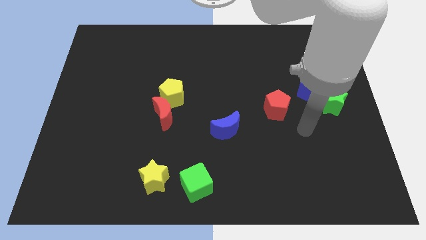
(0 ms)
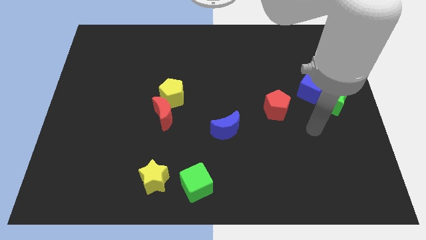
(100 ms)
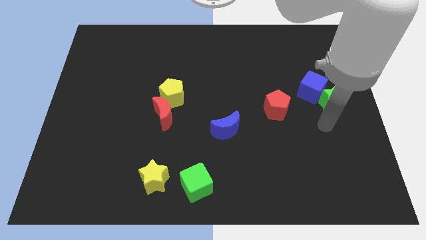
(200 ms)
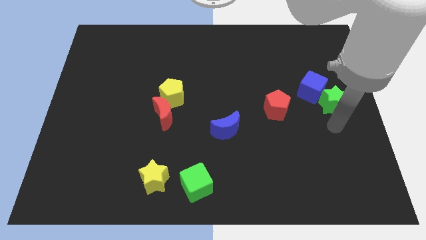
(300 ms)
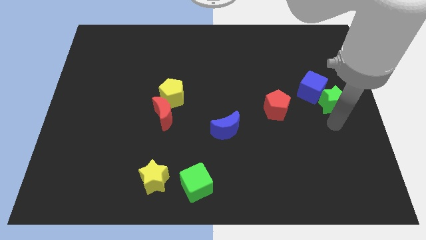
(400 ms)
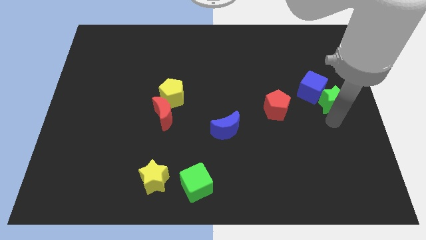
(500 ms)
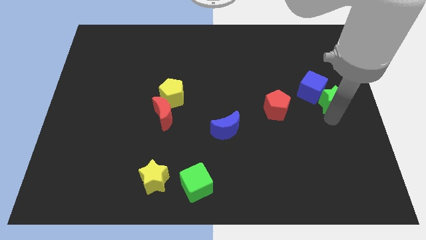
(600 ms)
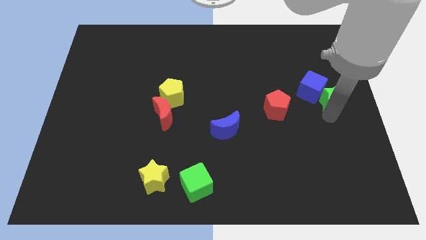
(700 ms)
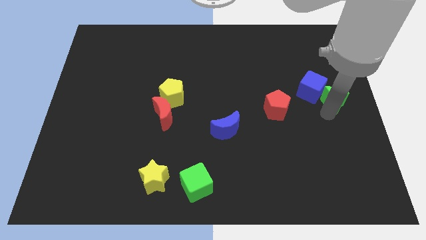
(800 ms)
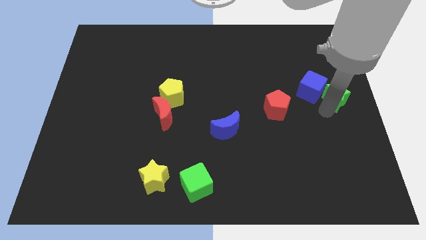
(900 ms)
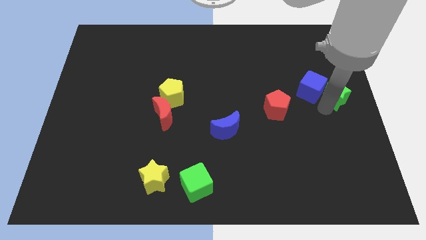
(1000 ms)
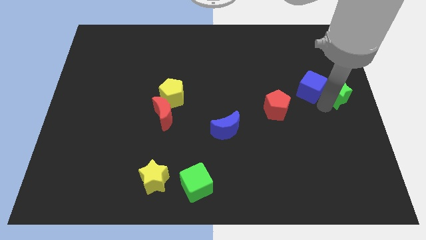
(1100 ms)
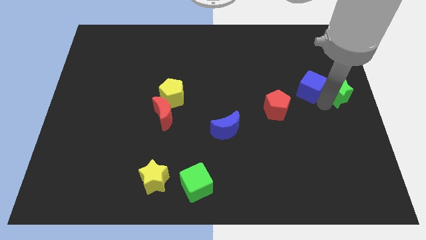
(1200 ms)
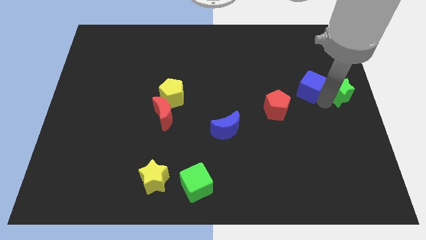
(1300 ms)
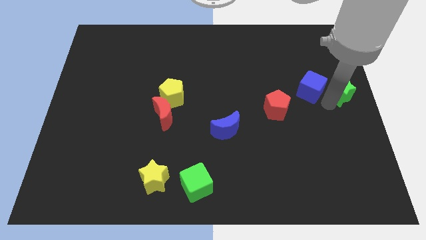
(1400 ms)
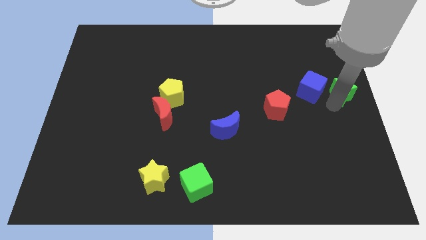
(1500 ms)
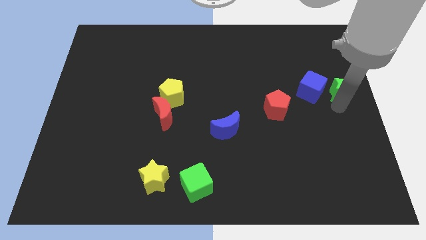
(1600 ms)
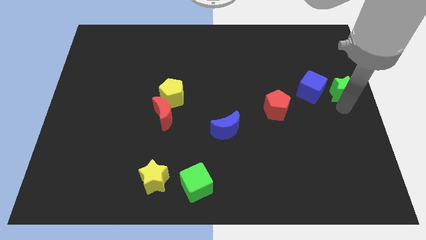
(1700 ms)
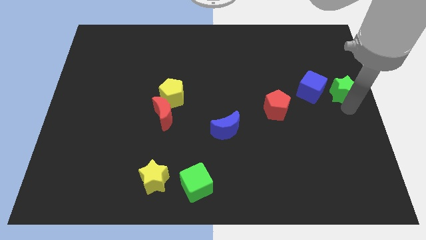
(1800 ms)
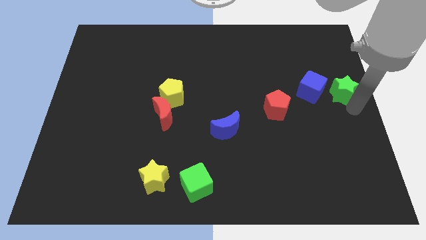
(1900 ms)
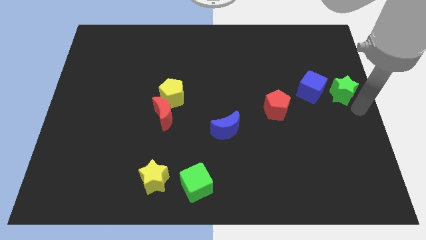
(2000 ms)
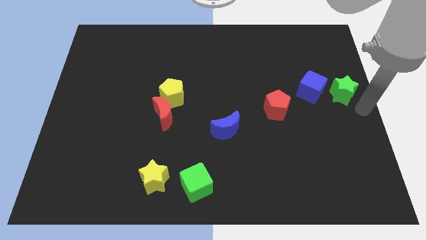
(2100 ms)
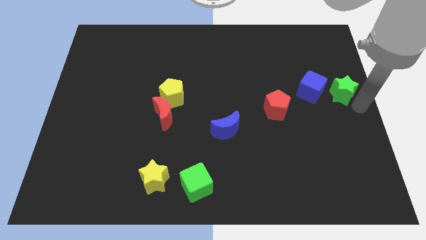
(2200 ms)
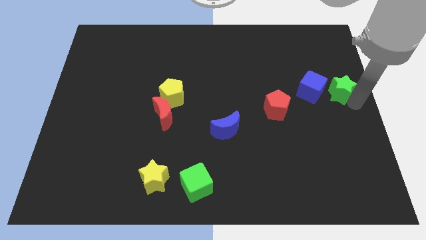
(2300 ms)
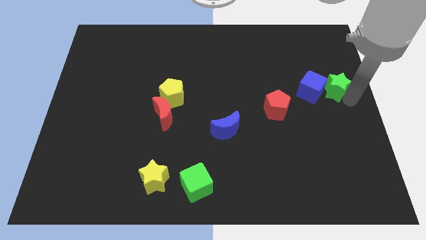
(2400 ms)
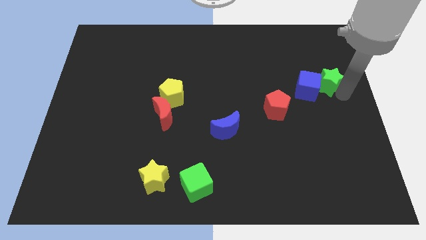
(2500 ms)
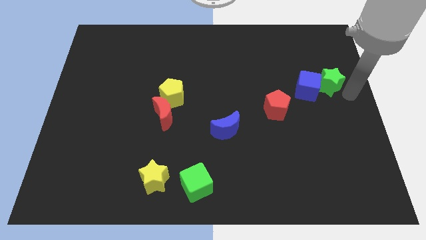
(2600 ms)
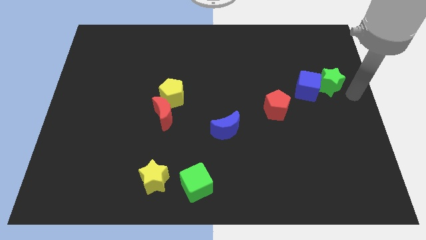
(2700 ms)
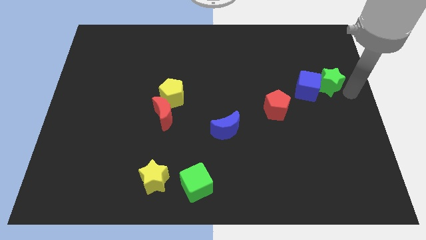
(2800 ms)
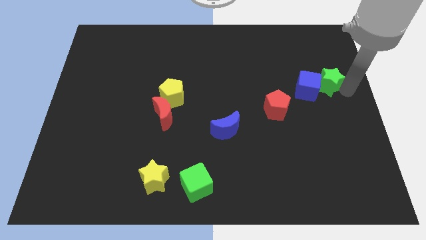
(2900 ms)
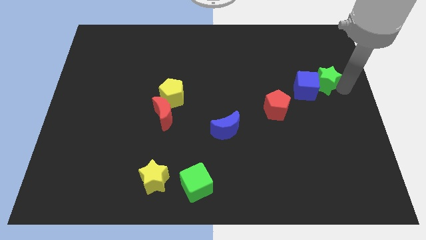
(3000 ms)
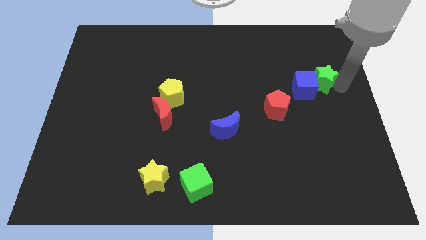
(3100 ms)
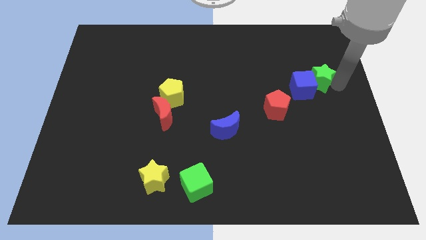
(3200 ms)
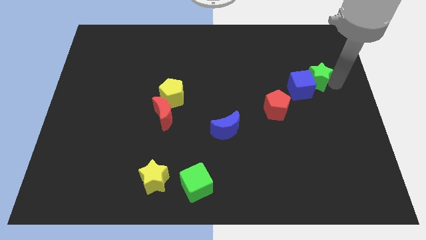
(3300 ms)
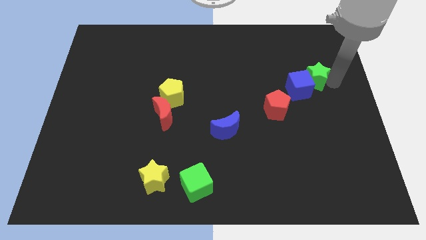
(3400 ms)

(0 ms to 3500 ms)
move the green star upwards and then to the left slightly

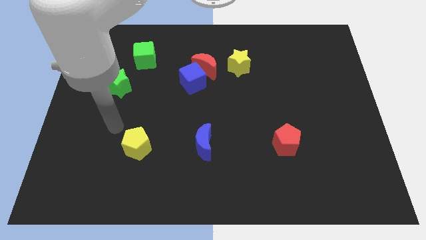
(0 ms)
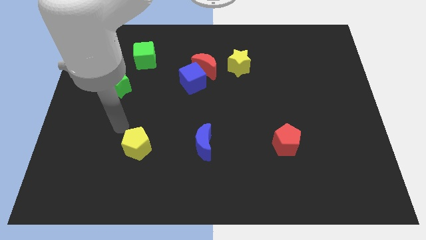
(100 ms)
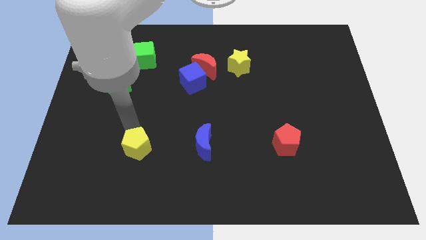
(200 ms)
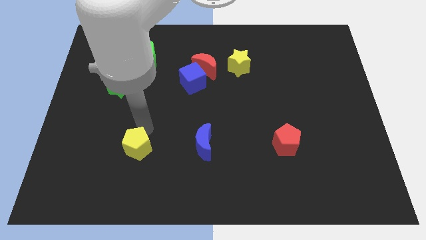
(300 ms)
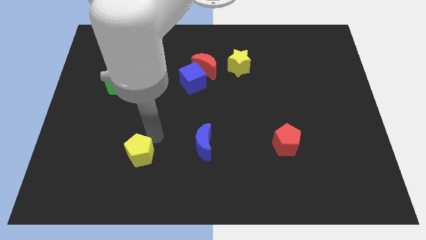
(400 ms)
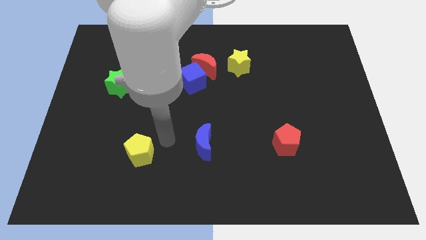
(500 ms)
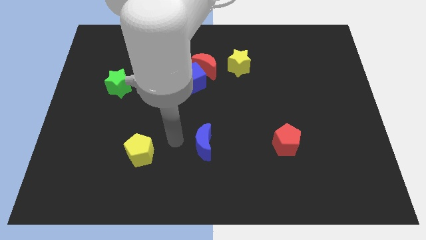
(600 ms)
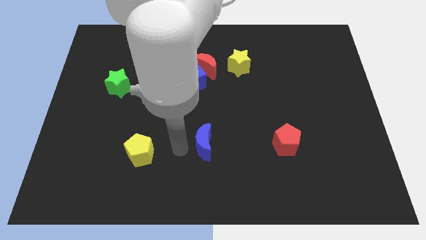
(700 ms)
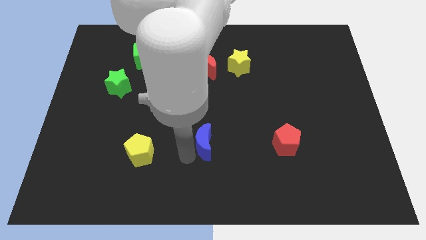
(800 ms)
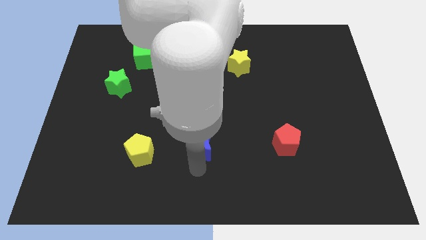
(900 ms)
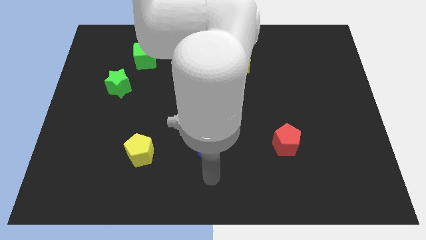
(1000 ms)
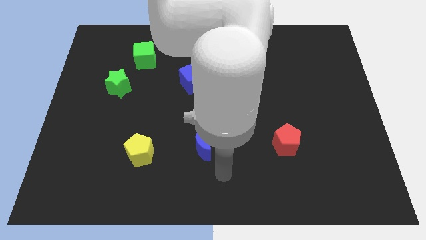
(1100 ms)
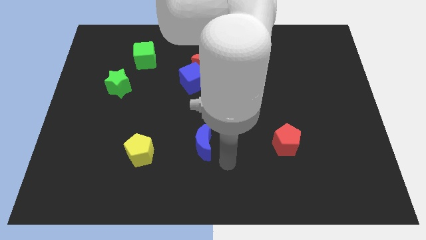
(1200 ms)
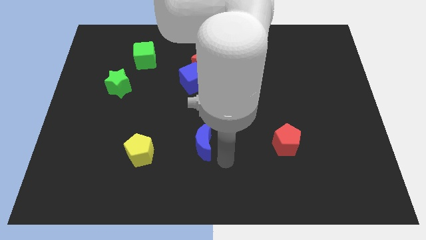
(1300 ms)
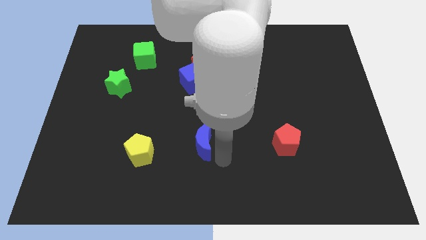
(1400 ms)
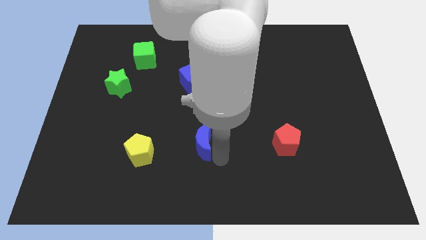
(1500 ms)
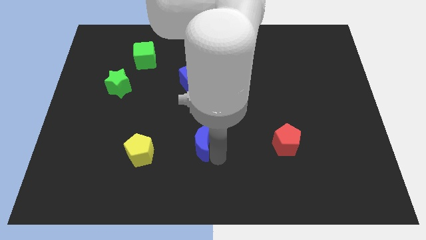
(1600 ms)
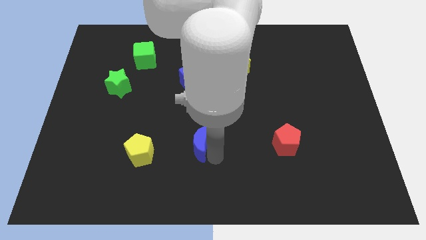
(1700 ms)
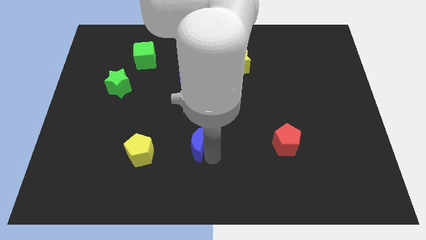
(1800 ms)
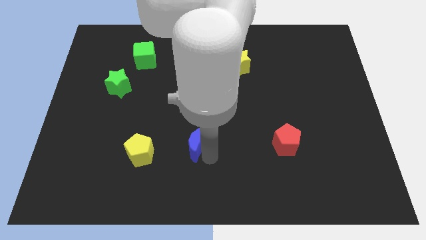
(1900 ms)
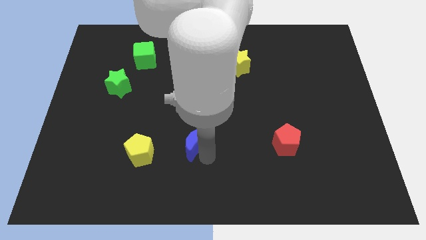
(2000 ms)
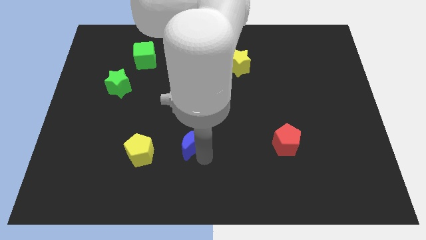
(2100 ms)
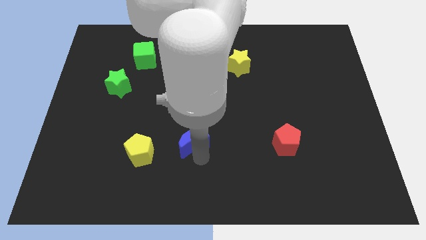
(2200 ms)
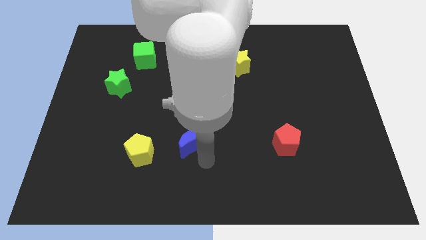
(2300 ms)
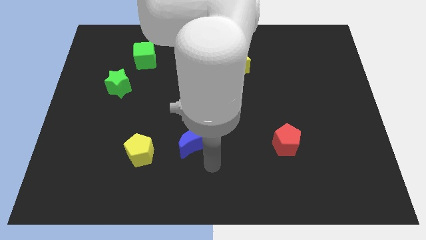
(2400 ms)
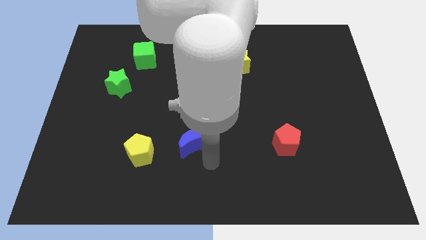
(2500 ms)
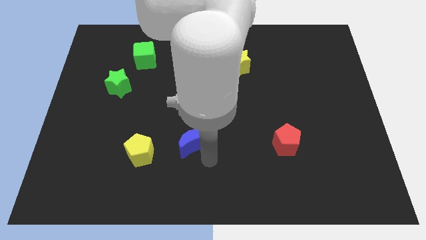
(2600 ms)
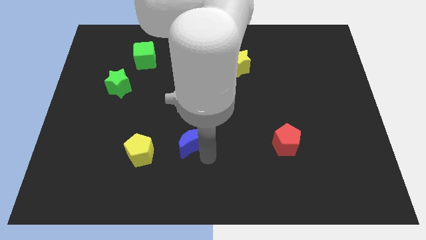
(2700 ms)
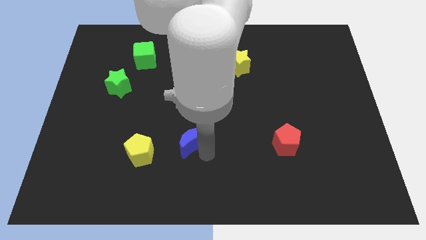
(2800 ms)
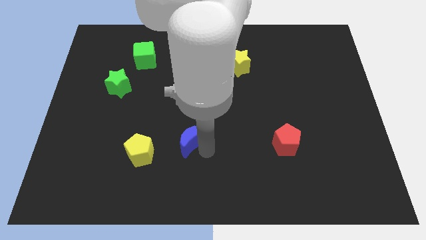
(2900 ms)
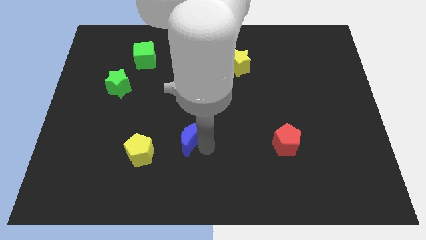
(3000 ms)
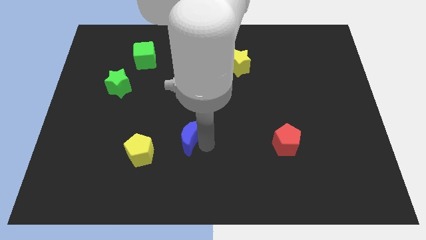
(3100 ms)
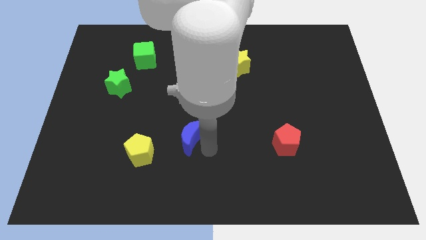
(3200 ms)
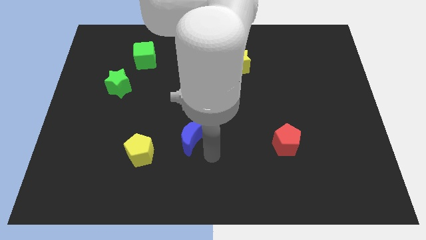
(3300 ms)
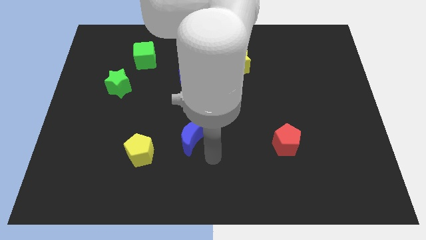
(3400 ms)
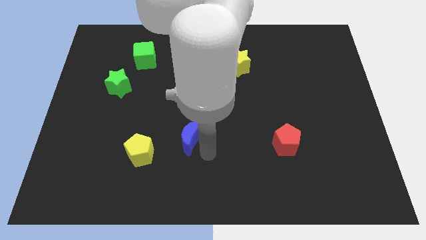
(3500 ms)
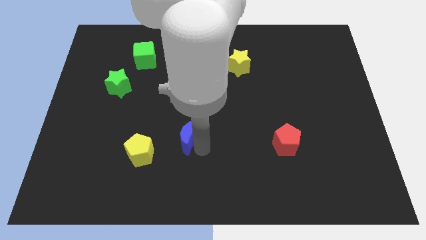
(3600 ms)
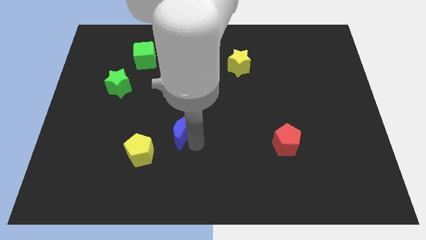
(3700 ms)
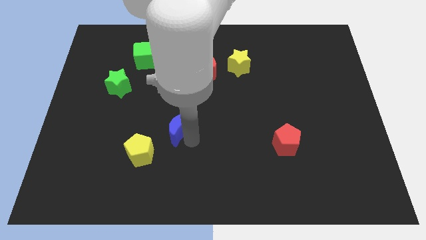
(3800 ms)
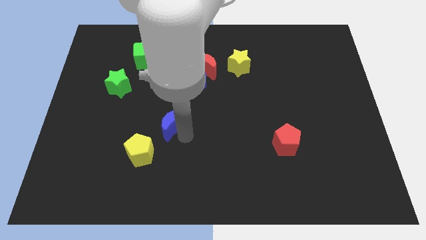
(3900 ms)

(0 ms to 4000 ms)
slightly move the blue moon up and left diagonally

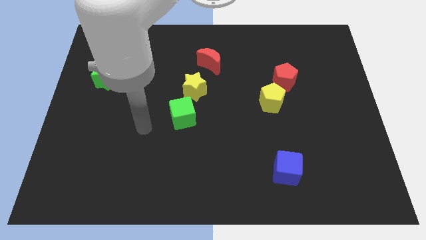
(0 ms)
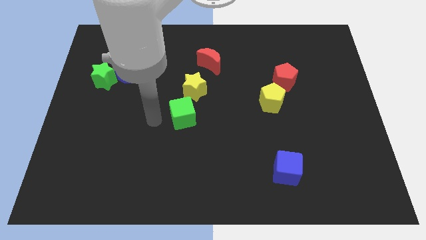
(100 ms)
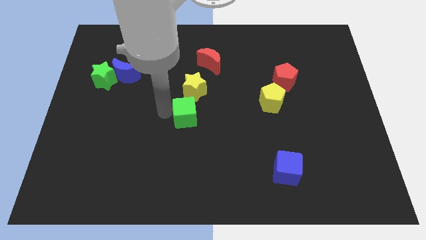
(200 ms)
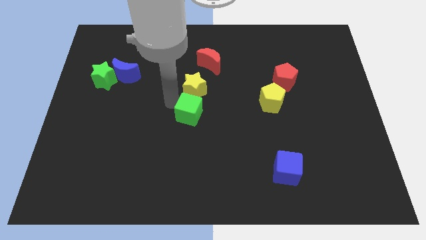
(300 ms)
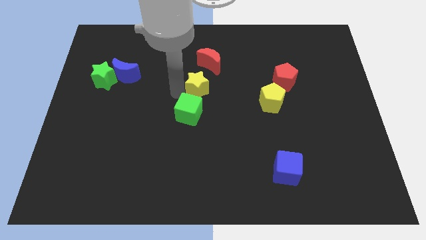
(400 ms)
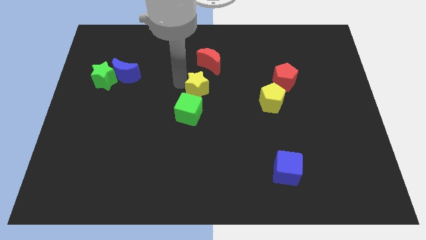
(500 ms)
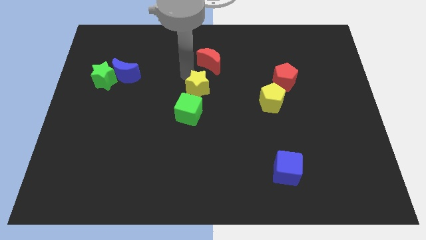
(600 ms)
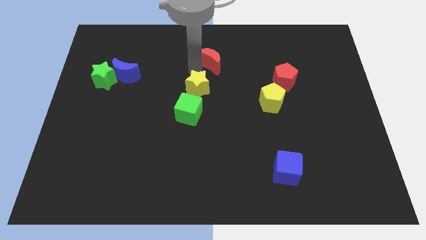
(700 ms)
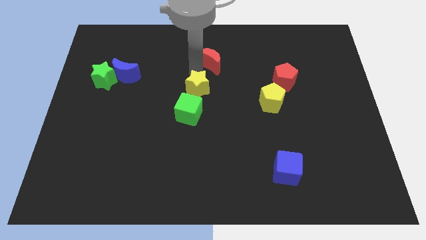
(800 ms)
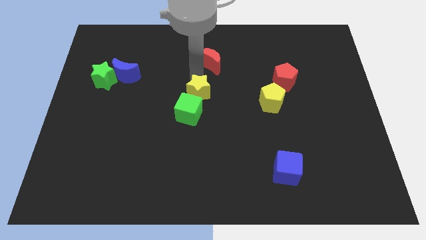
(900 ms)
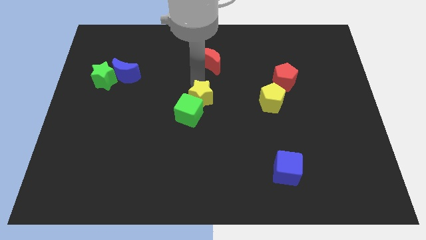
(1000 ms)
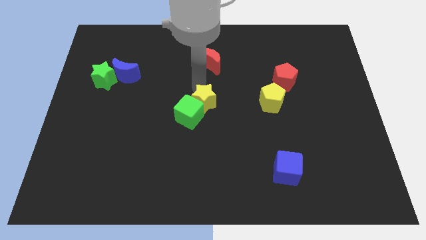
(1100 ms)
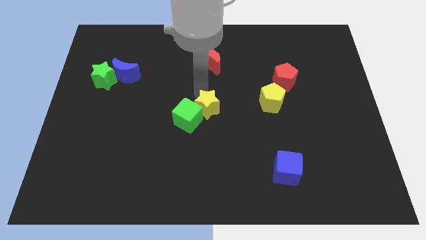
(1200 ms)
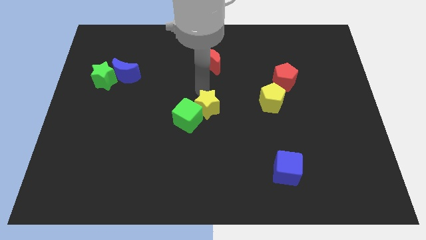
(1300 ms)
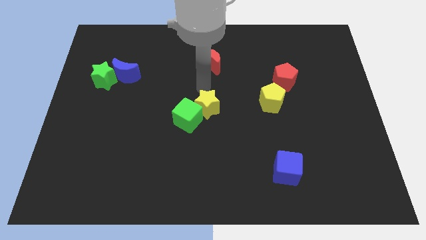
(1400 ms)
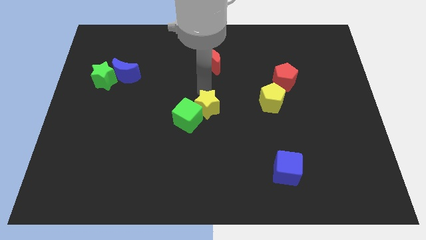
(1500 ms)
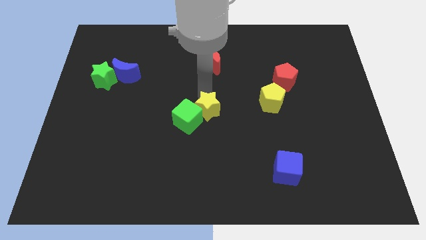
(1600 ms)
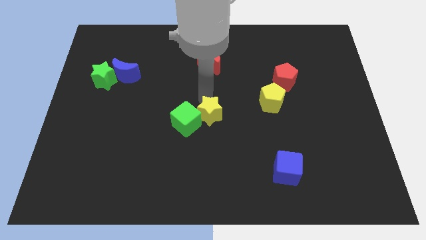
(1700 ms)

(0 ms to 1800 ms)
push the yellow star a little downwards
